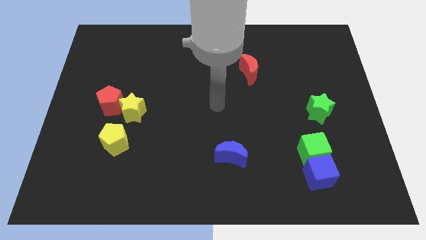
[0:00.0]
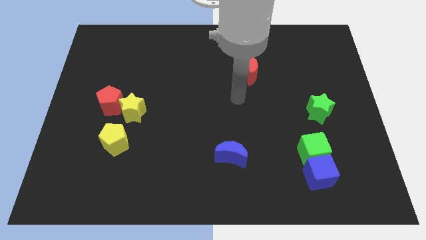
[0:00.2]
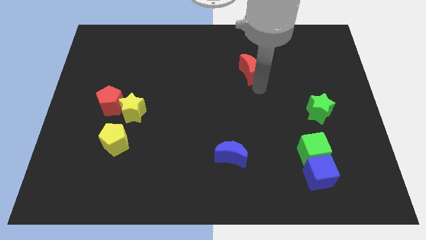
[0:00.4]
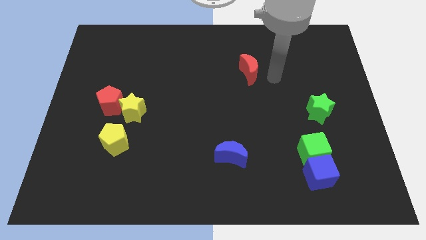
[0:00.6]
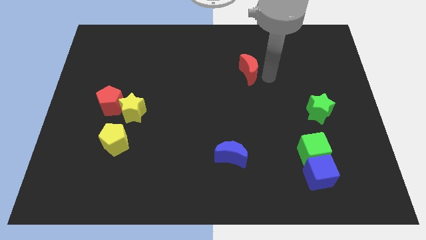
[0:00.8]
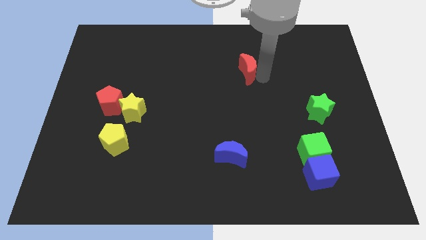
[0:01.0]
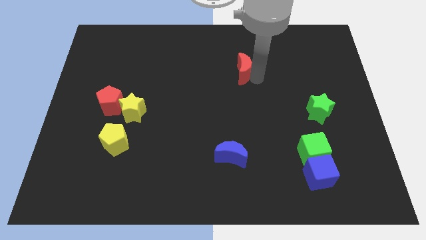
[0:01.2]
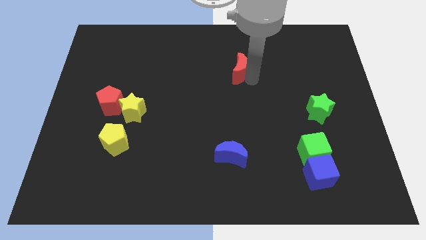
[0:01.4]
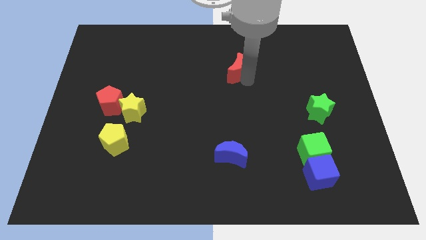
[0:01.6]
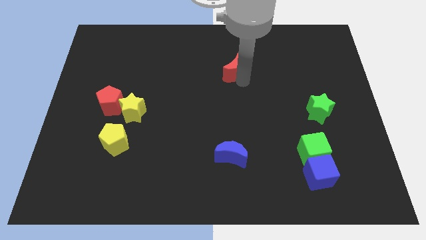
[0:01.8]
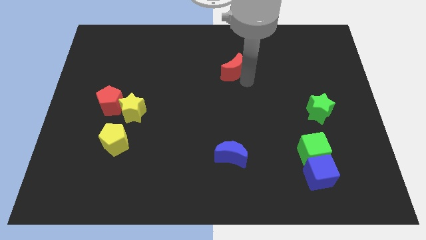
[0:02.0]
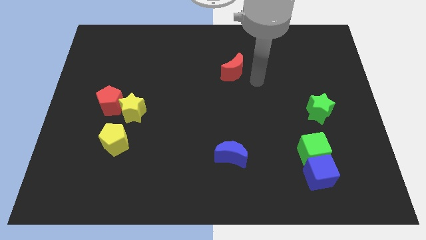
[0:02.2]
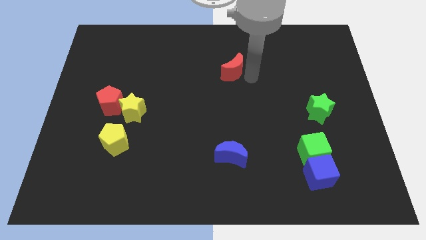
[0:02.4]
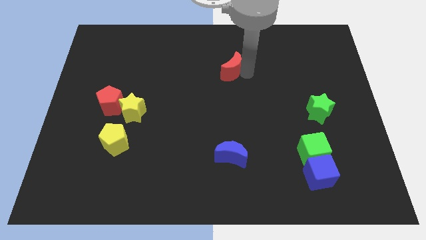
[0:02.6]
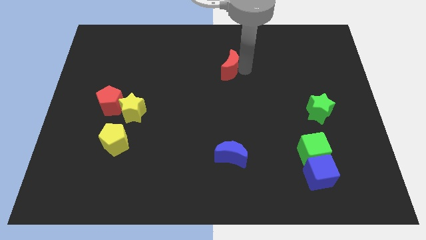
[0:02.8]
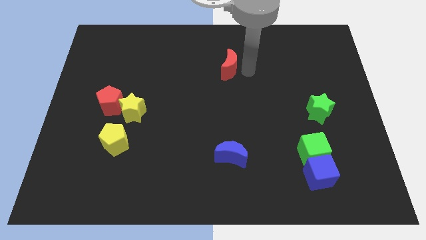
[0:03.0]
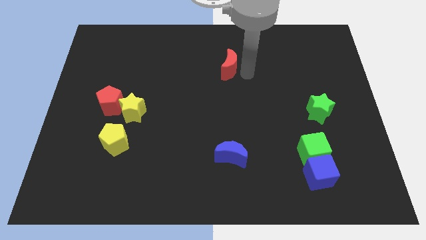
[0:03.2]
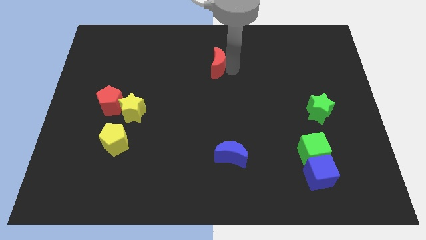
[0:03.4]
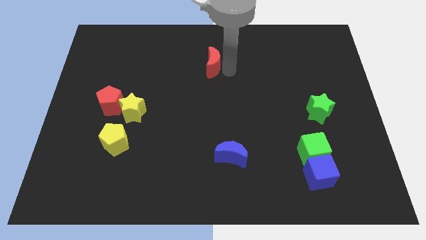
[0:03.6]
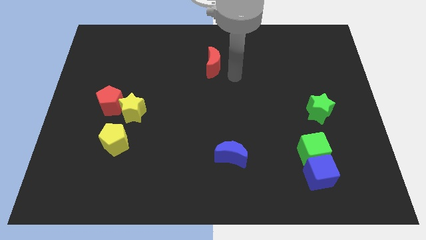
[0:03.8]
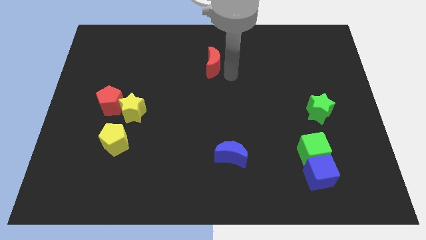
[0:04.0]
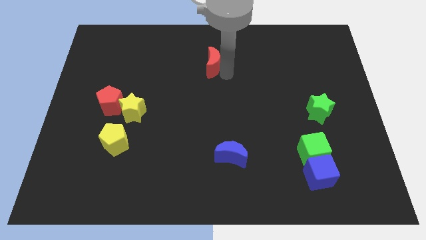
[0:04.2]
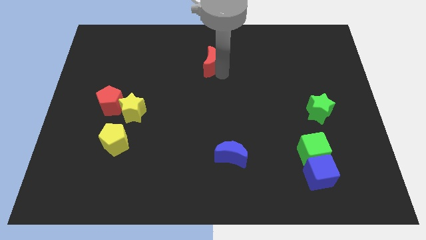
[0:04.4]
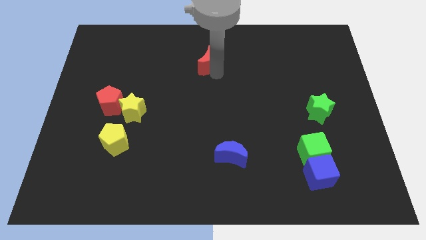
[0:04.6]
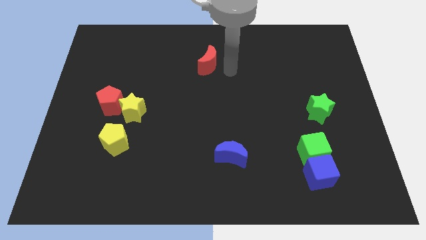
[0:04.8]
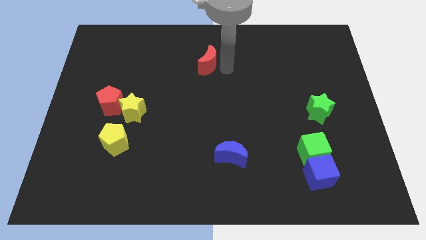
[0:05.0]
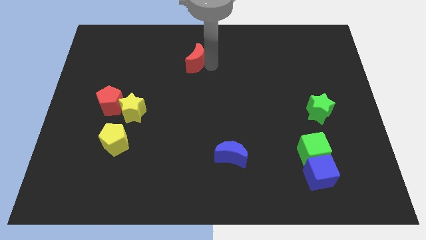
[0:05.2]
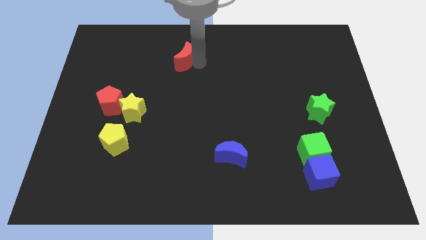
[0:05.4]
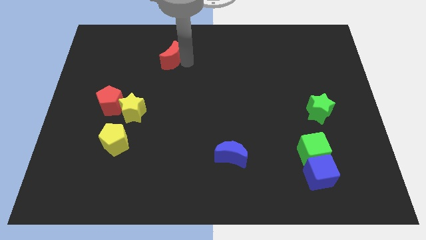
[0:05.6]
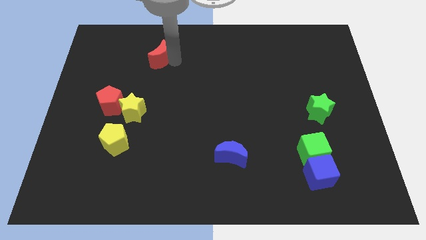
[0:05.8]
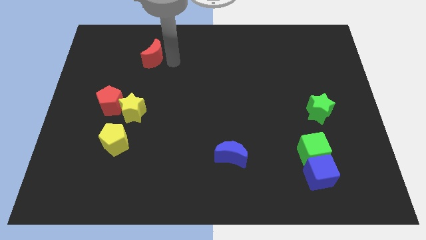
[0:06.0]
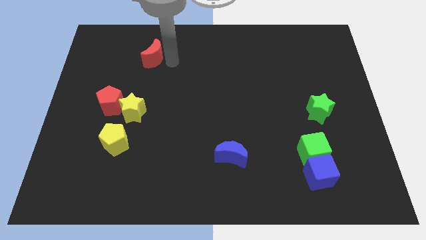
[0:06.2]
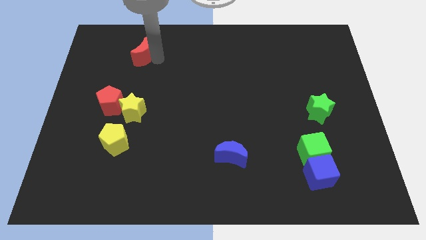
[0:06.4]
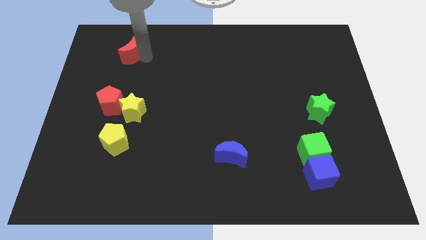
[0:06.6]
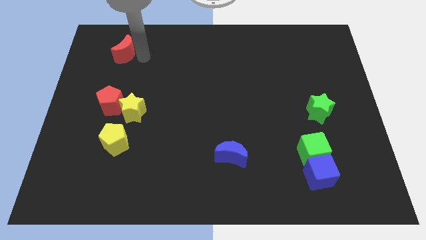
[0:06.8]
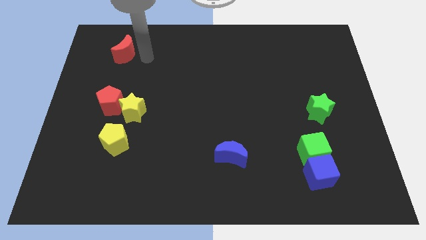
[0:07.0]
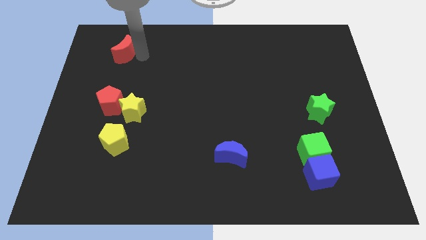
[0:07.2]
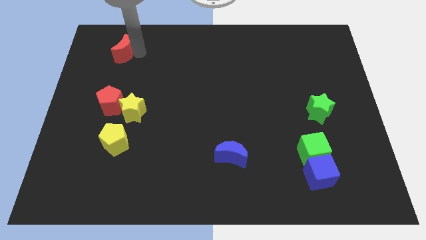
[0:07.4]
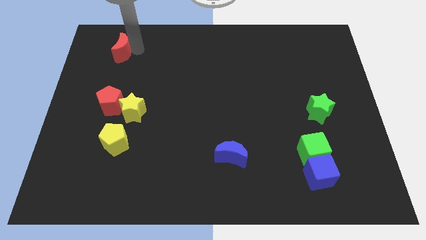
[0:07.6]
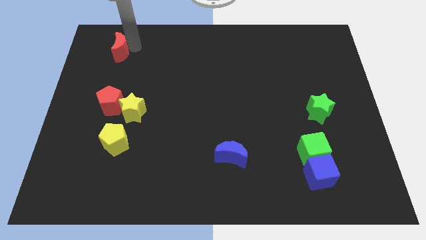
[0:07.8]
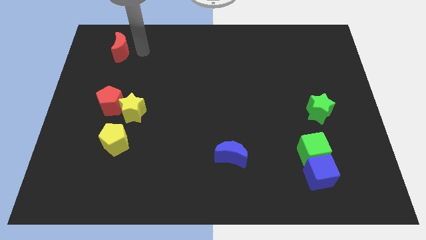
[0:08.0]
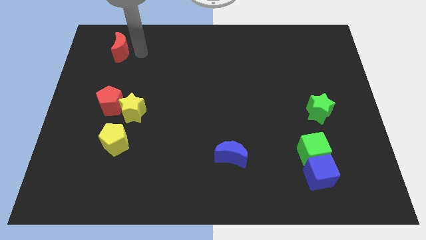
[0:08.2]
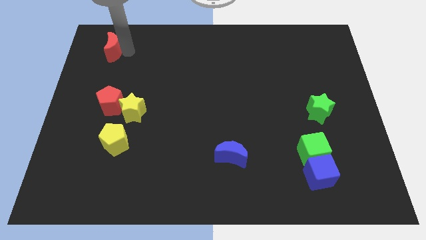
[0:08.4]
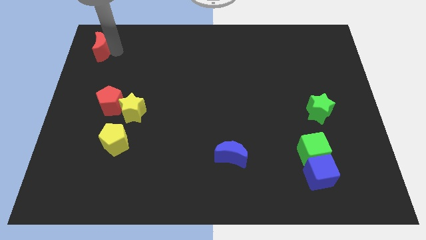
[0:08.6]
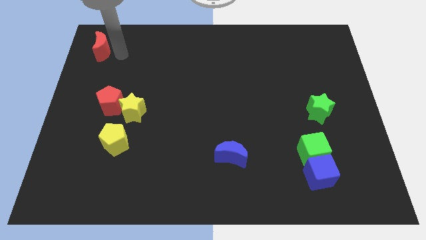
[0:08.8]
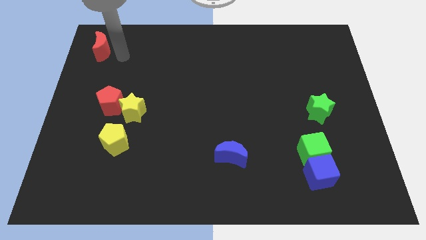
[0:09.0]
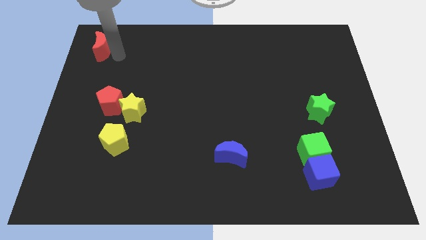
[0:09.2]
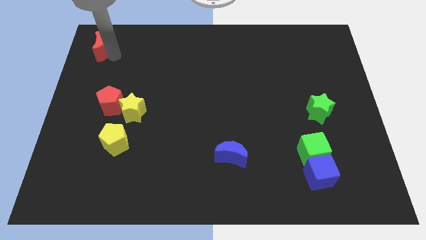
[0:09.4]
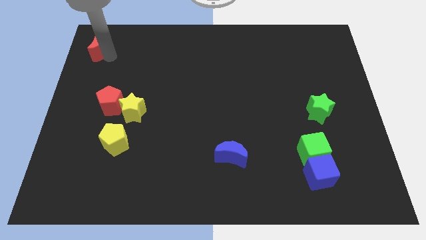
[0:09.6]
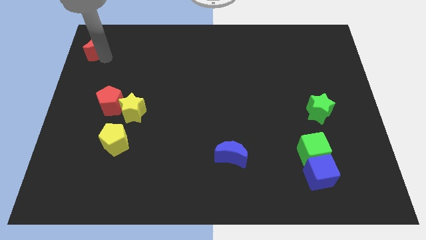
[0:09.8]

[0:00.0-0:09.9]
slide the red moon to the upper left corner

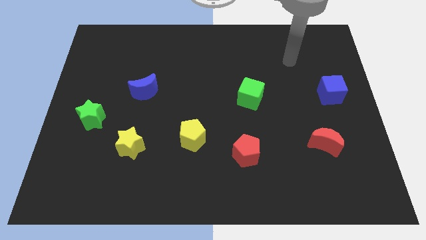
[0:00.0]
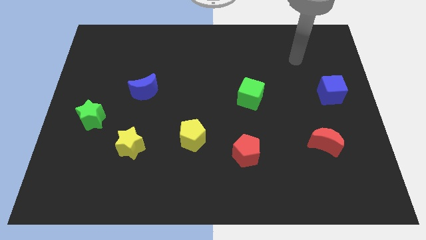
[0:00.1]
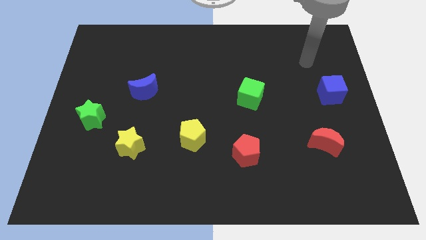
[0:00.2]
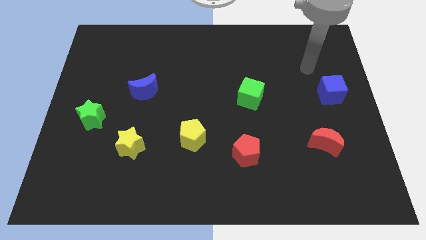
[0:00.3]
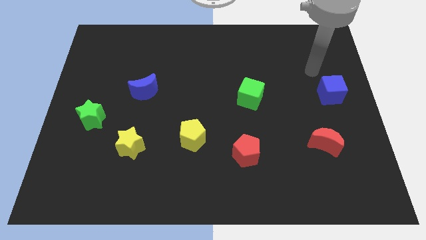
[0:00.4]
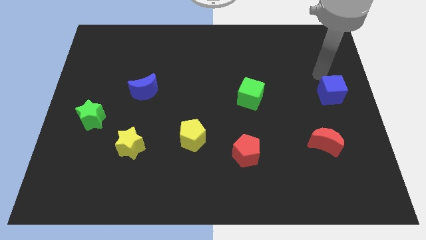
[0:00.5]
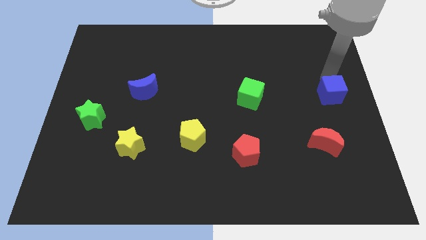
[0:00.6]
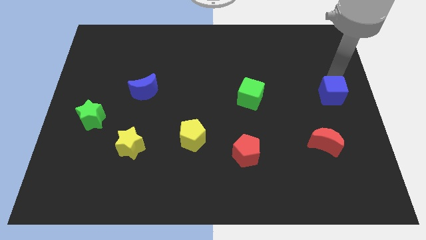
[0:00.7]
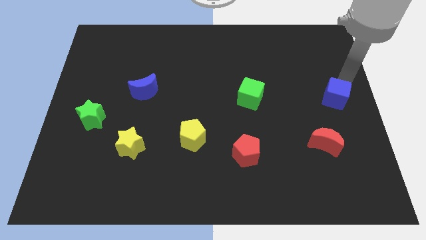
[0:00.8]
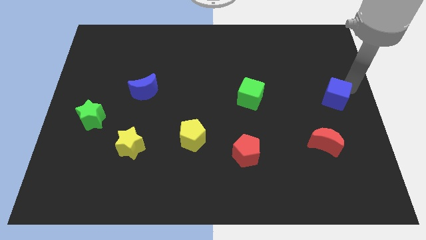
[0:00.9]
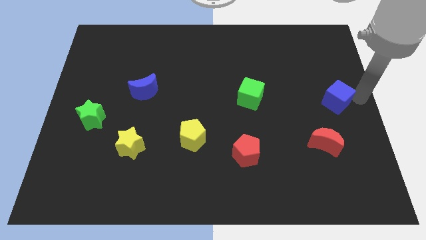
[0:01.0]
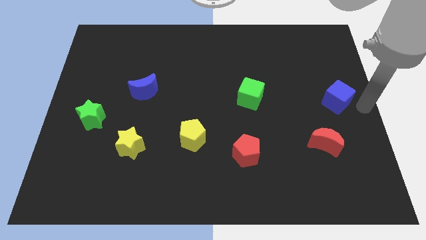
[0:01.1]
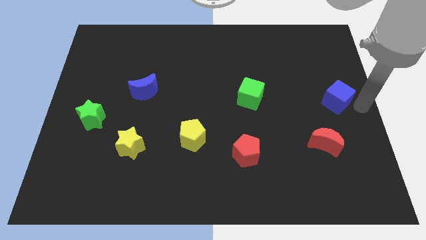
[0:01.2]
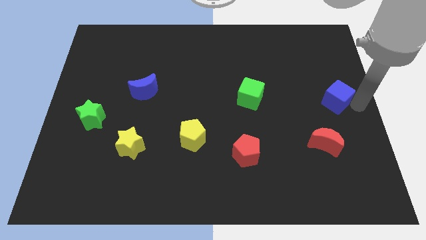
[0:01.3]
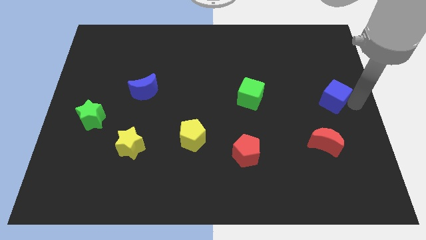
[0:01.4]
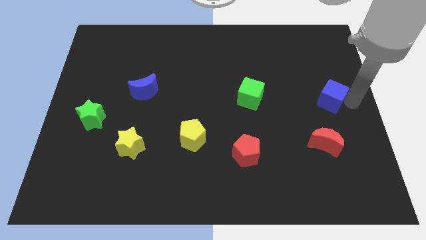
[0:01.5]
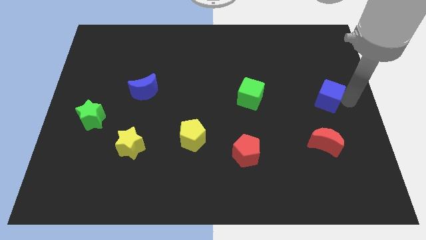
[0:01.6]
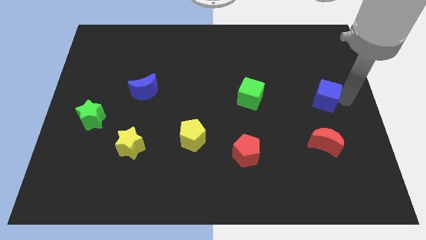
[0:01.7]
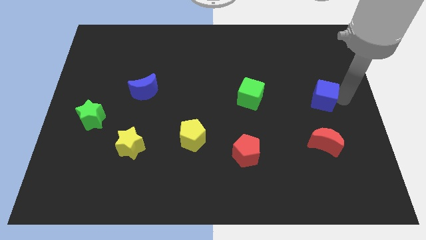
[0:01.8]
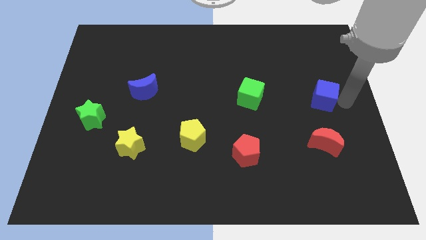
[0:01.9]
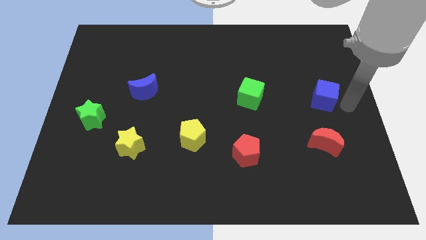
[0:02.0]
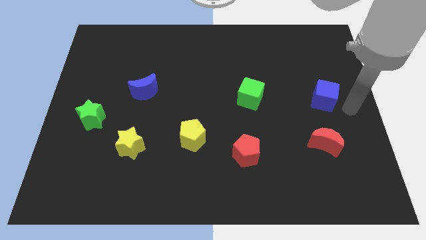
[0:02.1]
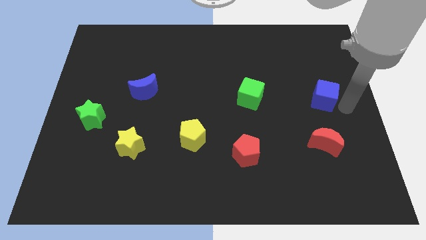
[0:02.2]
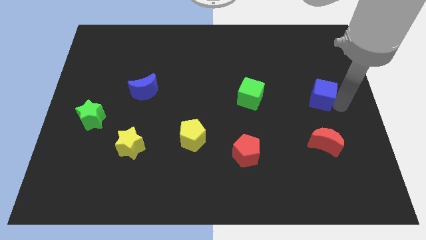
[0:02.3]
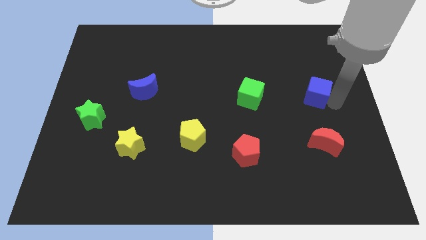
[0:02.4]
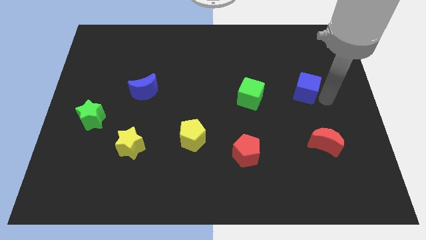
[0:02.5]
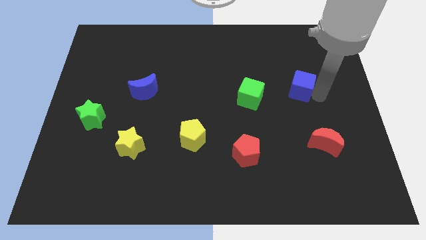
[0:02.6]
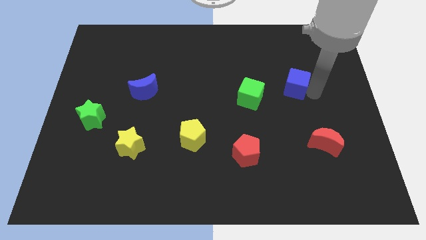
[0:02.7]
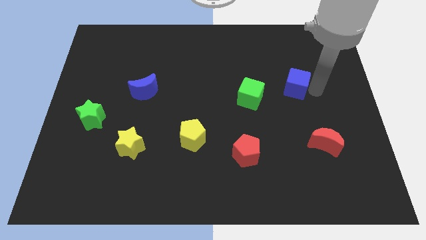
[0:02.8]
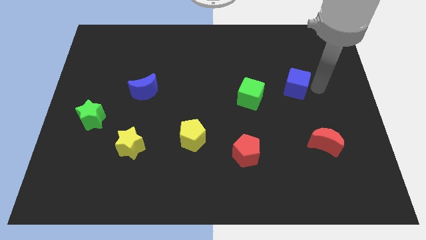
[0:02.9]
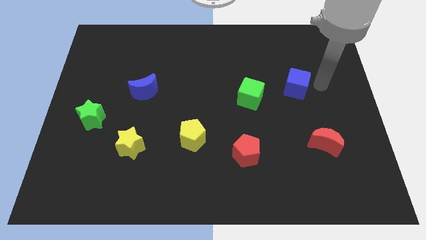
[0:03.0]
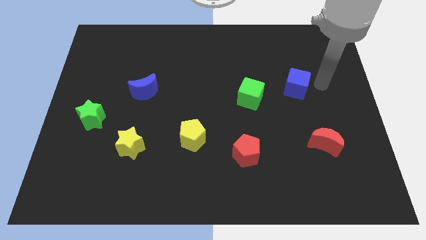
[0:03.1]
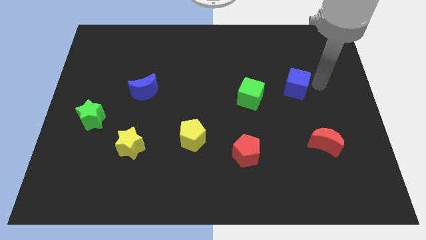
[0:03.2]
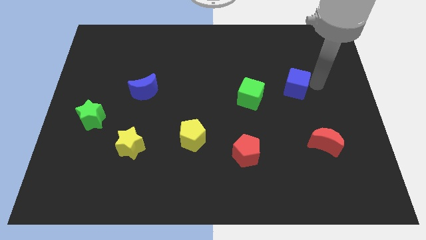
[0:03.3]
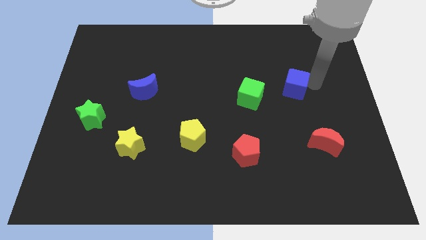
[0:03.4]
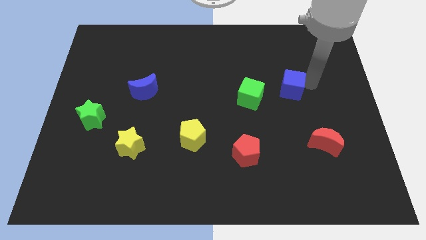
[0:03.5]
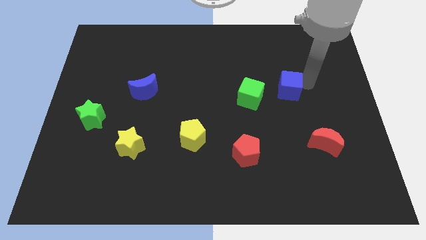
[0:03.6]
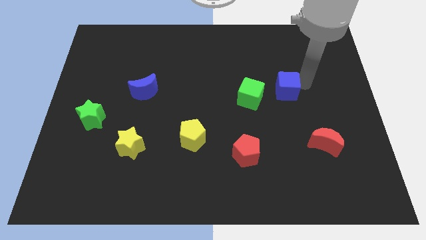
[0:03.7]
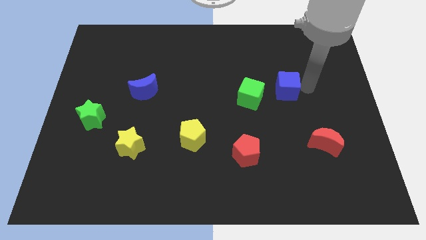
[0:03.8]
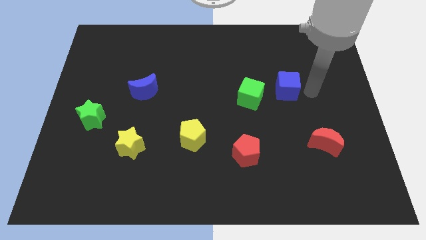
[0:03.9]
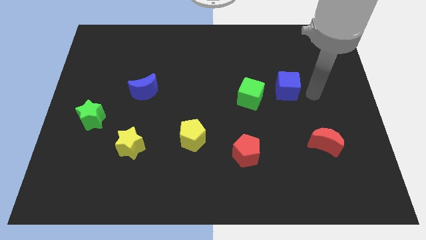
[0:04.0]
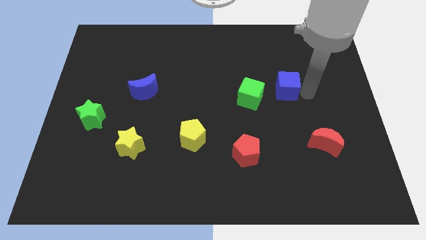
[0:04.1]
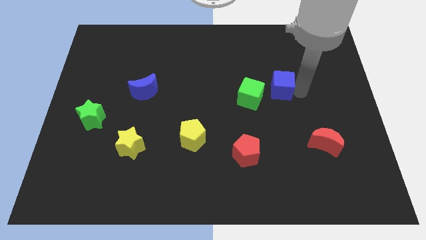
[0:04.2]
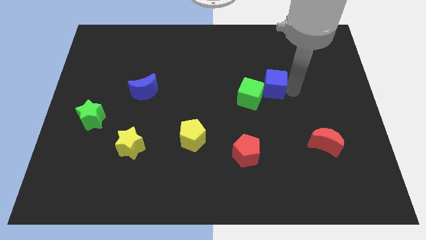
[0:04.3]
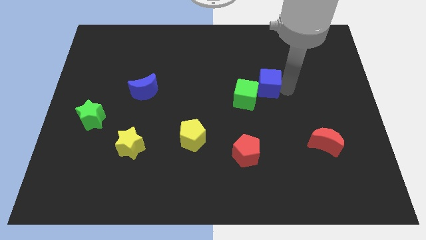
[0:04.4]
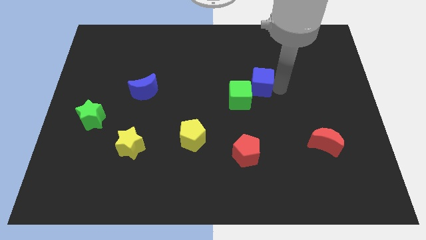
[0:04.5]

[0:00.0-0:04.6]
push the blue cube to the center
